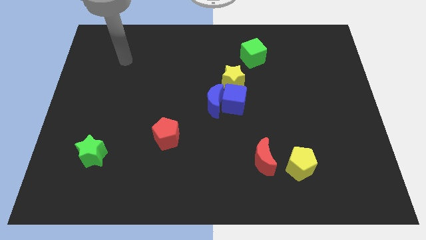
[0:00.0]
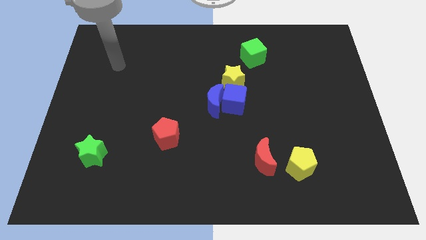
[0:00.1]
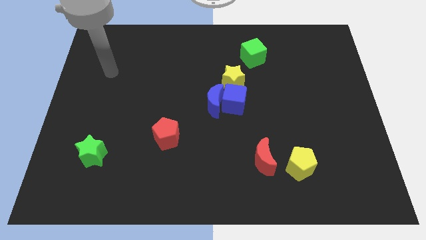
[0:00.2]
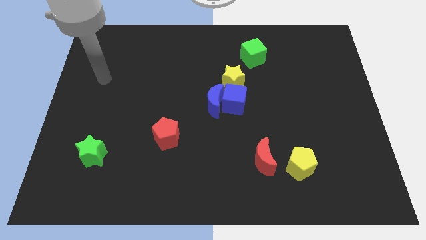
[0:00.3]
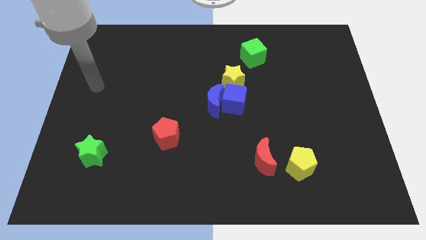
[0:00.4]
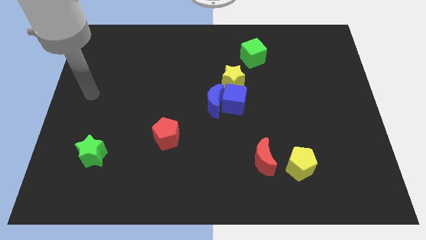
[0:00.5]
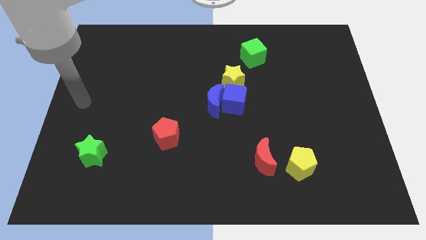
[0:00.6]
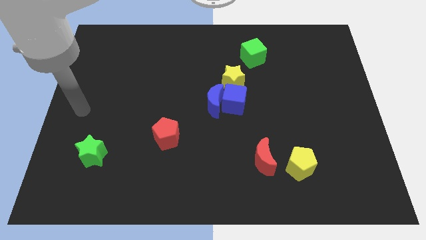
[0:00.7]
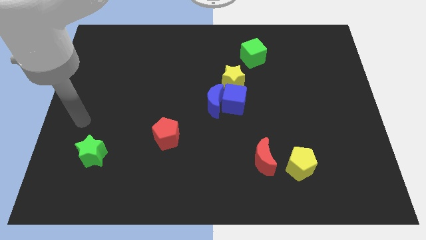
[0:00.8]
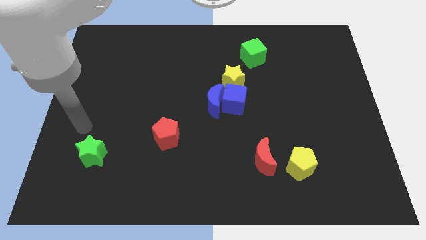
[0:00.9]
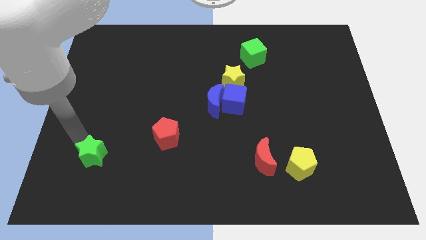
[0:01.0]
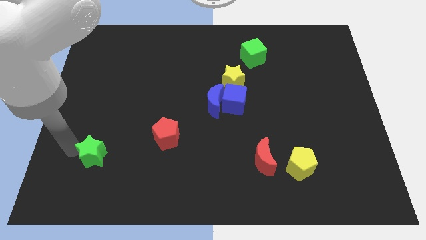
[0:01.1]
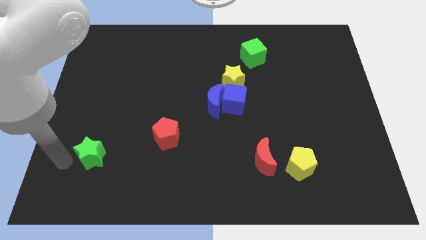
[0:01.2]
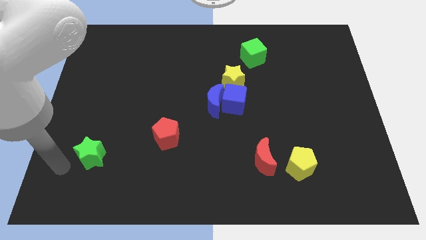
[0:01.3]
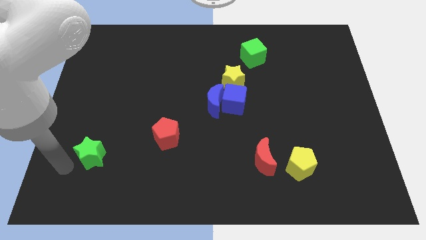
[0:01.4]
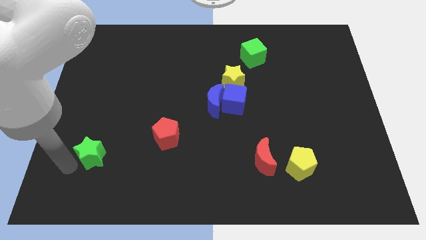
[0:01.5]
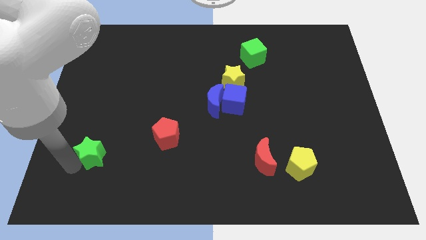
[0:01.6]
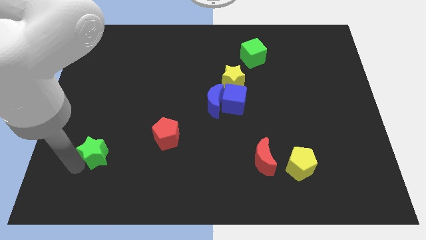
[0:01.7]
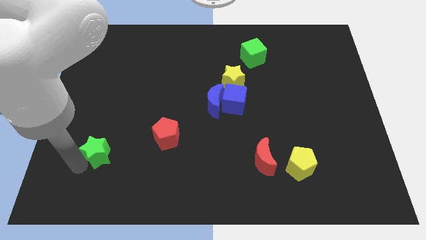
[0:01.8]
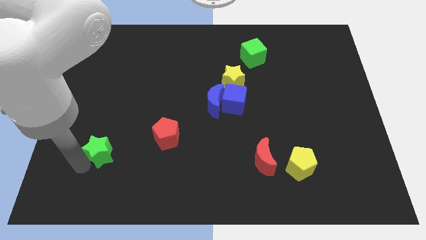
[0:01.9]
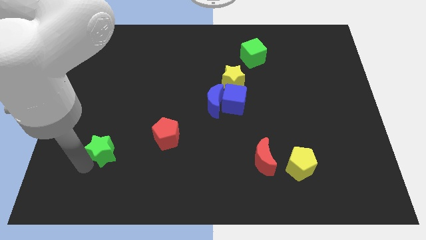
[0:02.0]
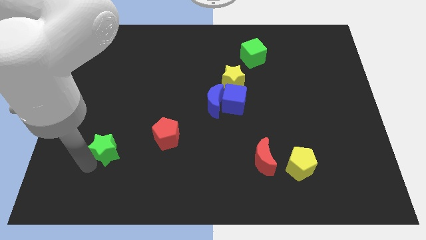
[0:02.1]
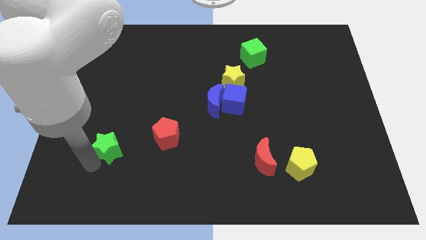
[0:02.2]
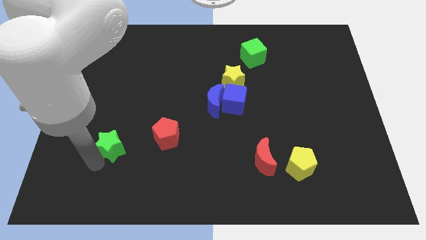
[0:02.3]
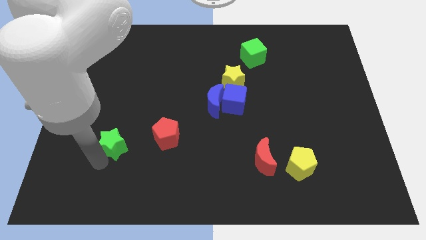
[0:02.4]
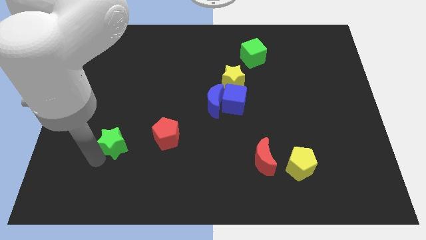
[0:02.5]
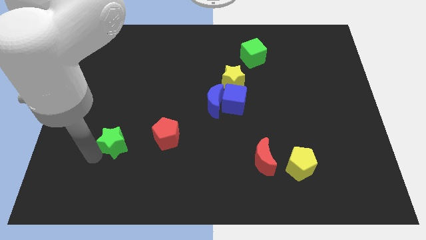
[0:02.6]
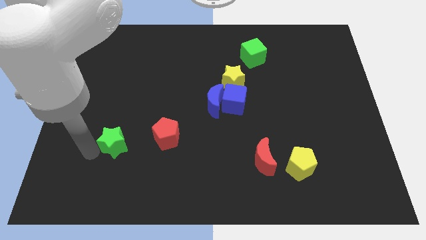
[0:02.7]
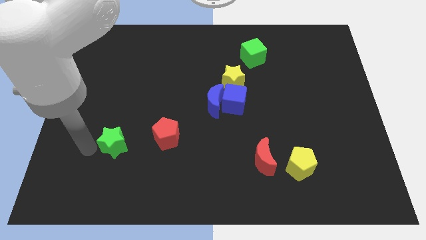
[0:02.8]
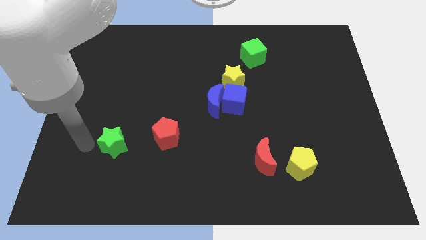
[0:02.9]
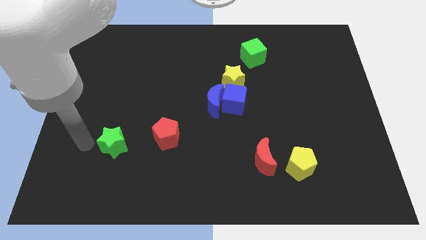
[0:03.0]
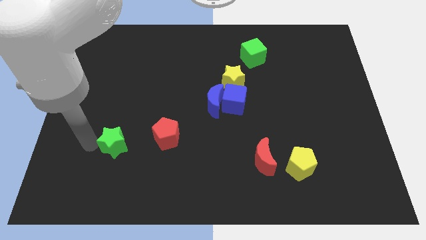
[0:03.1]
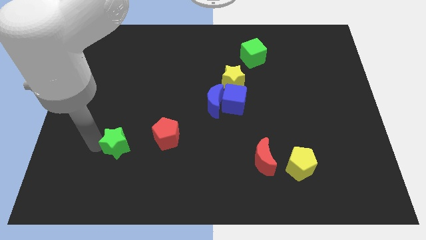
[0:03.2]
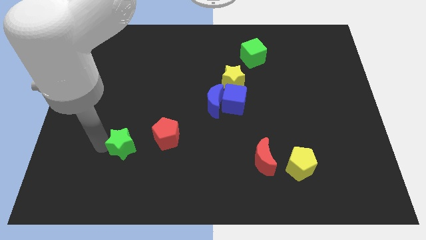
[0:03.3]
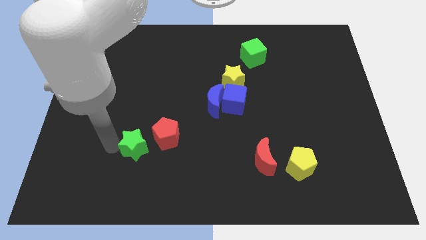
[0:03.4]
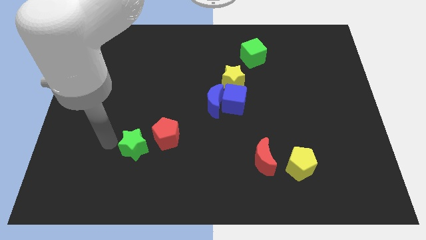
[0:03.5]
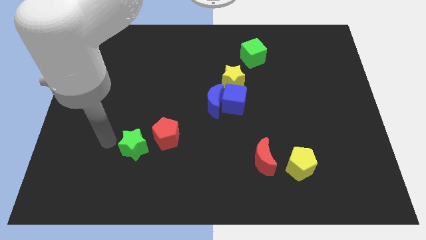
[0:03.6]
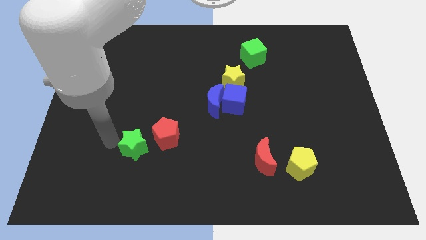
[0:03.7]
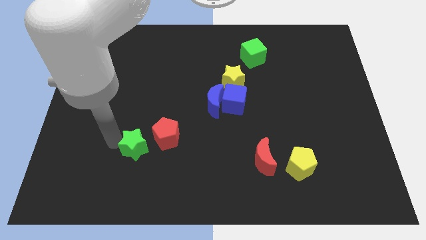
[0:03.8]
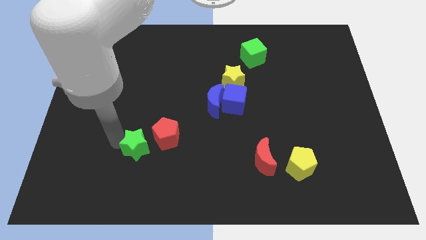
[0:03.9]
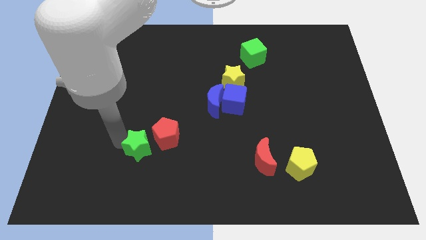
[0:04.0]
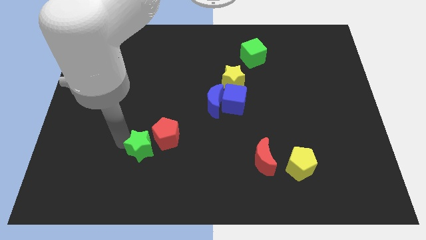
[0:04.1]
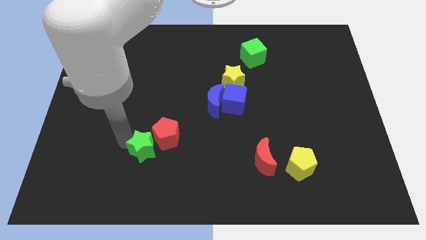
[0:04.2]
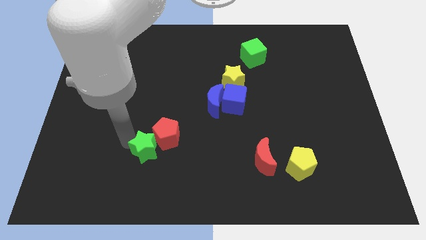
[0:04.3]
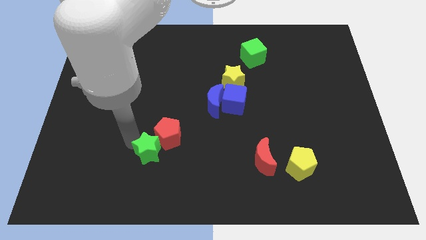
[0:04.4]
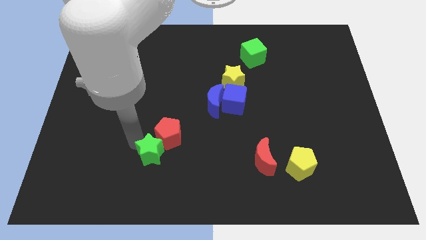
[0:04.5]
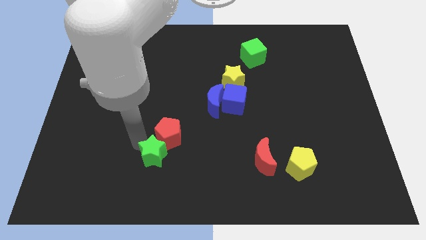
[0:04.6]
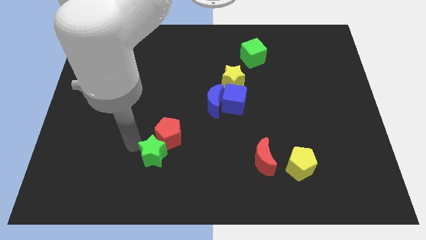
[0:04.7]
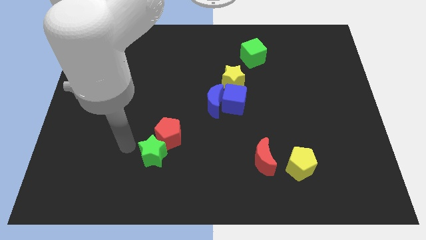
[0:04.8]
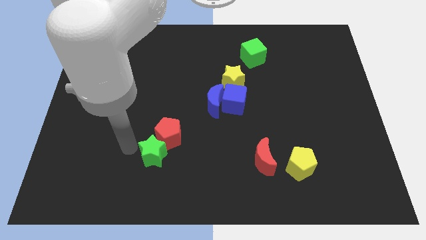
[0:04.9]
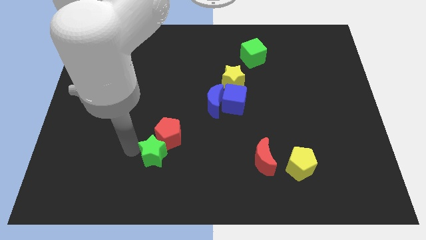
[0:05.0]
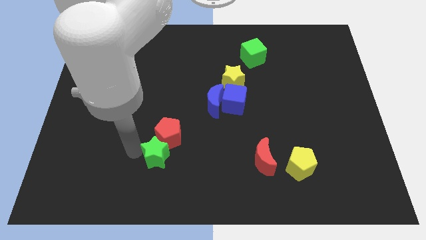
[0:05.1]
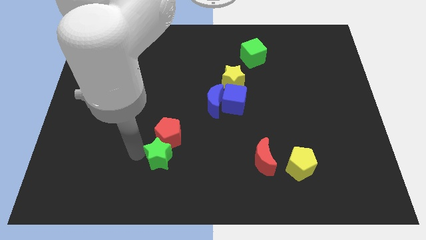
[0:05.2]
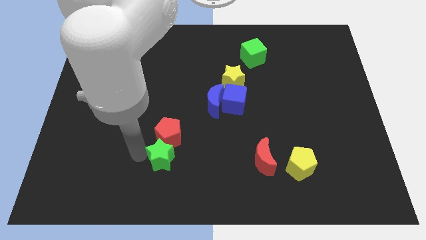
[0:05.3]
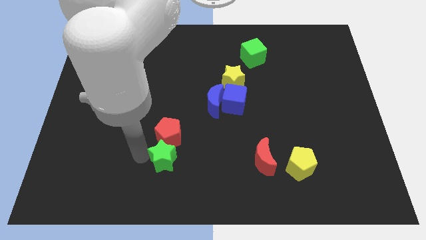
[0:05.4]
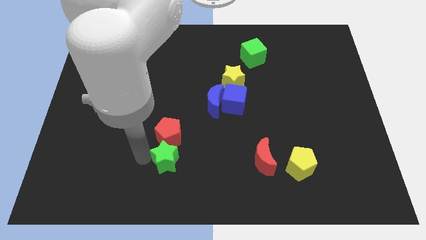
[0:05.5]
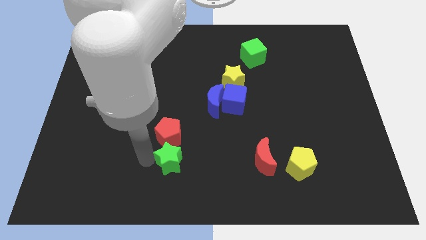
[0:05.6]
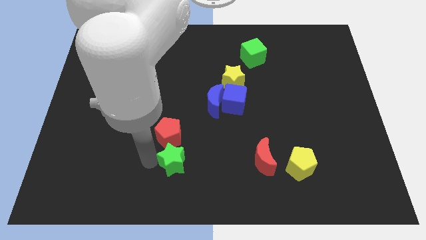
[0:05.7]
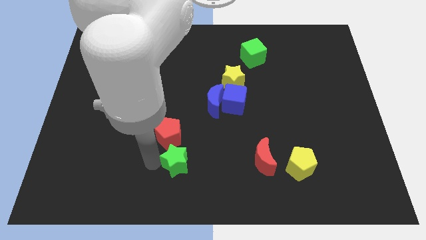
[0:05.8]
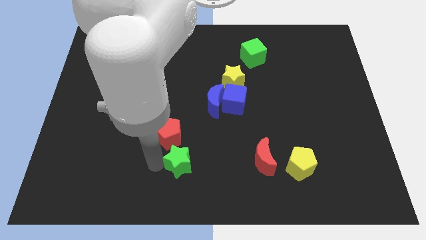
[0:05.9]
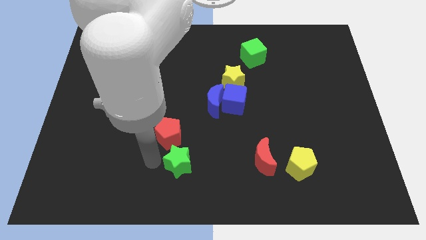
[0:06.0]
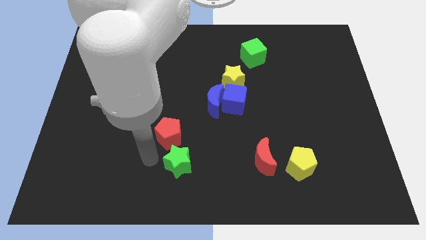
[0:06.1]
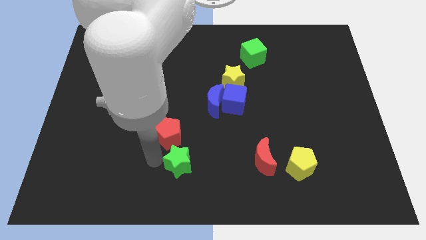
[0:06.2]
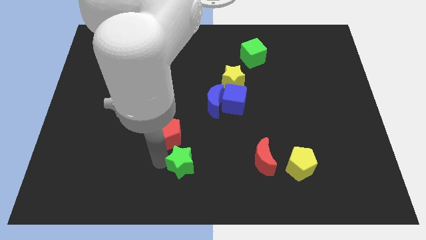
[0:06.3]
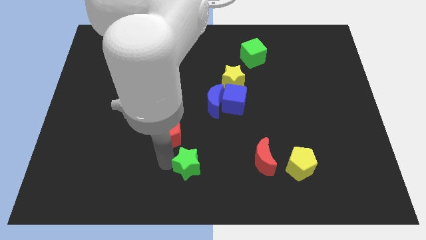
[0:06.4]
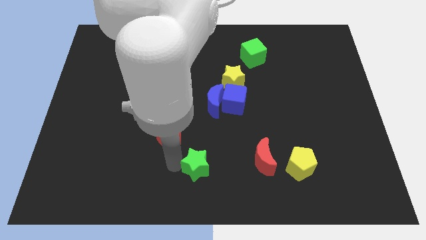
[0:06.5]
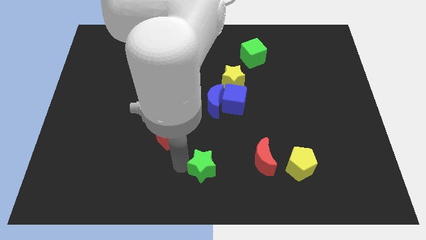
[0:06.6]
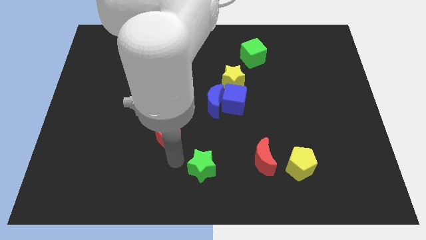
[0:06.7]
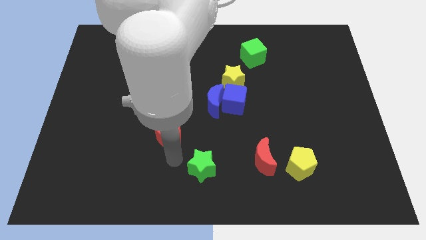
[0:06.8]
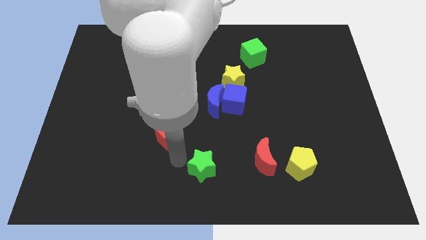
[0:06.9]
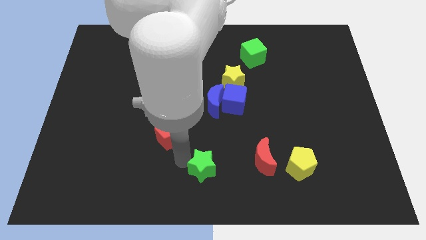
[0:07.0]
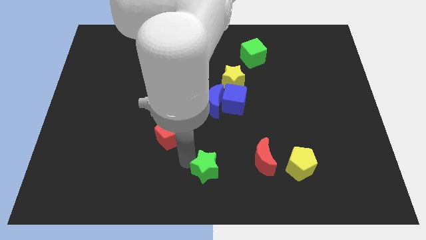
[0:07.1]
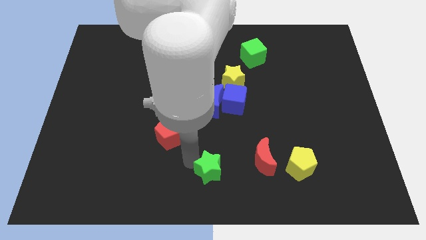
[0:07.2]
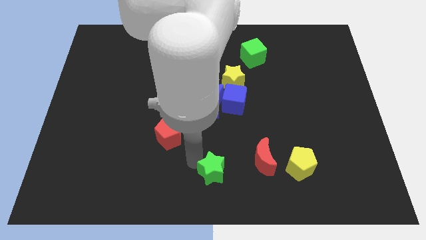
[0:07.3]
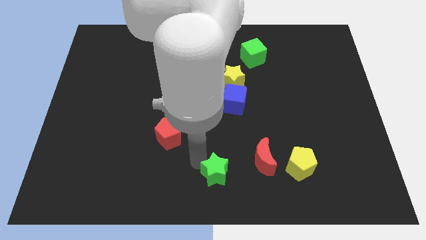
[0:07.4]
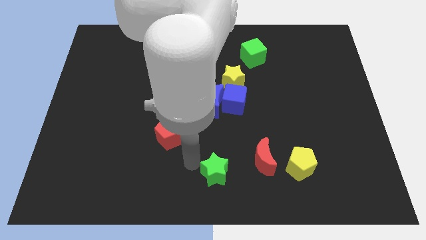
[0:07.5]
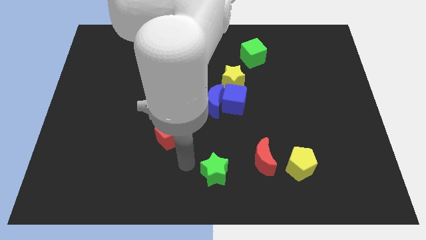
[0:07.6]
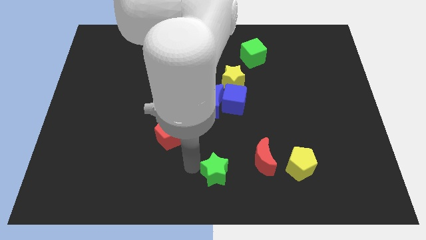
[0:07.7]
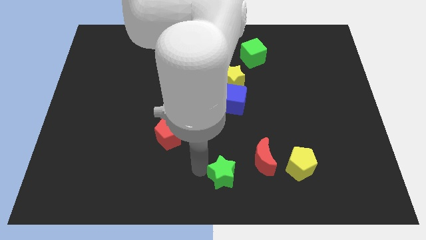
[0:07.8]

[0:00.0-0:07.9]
push the green star to the bottom left of the red moon
